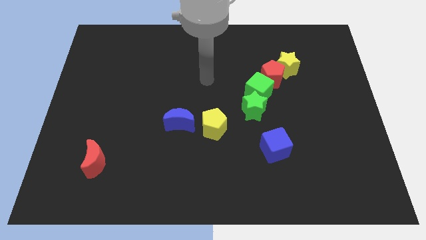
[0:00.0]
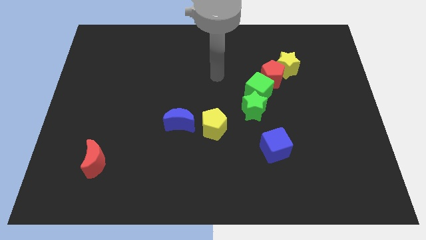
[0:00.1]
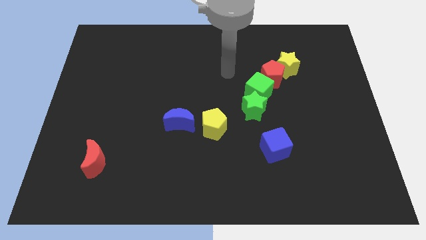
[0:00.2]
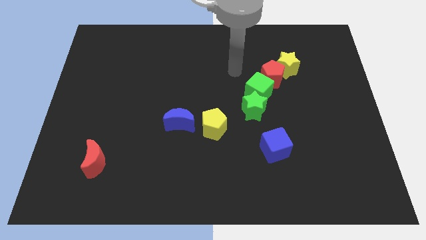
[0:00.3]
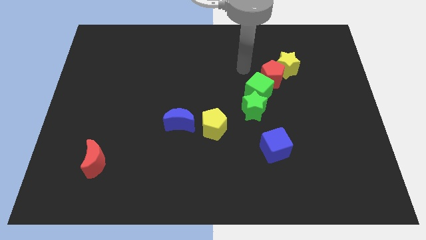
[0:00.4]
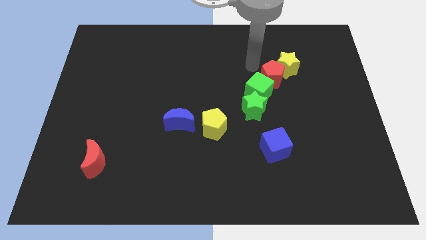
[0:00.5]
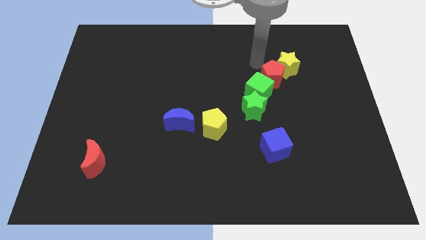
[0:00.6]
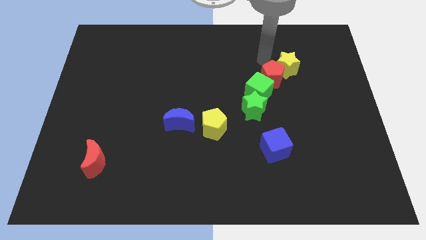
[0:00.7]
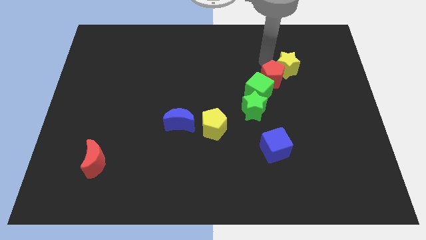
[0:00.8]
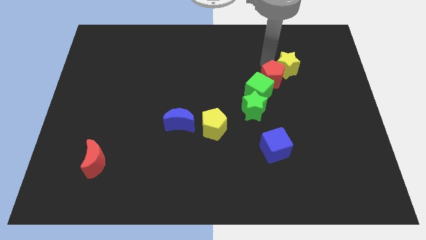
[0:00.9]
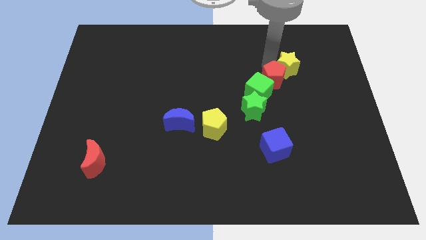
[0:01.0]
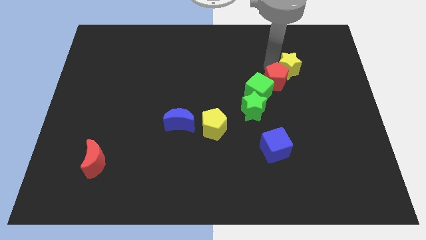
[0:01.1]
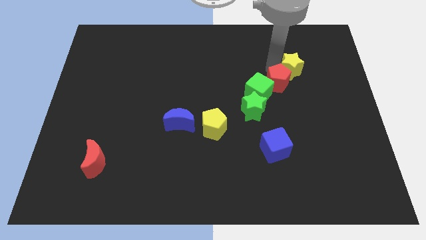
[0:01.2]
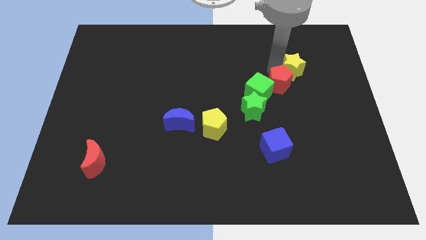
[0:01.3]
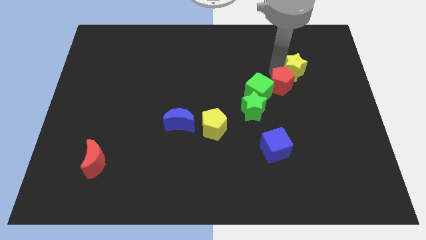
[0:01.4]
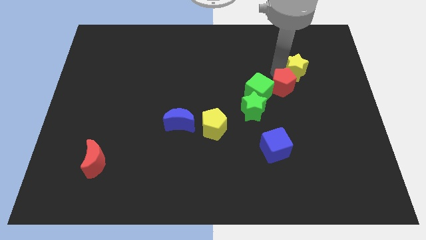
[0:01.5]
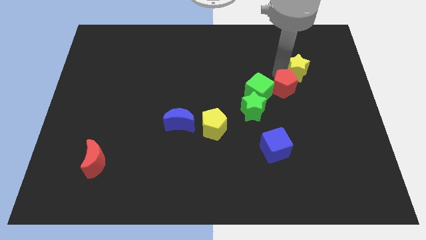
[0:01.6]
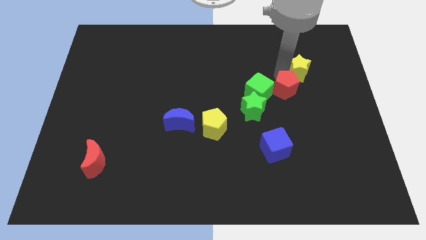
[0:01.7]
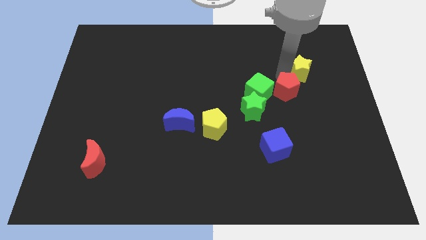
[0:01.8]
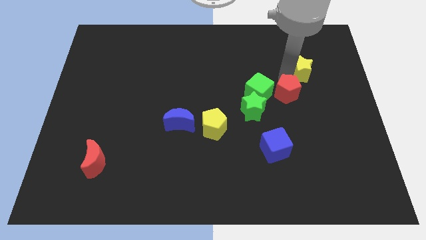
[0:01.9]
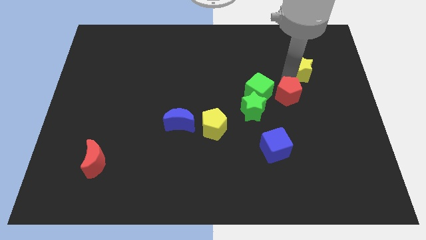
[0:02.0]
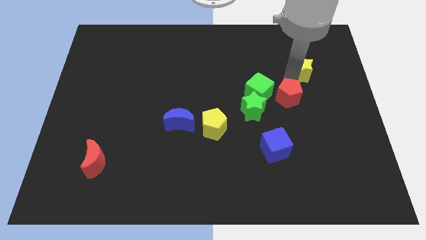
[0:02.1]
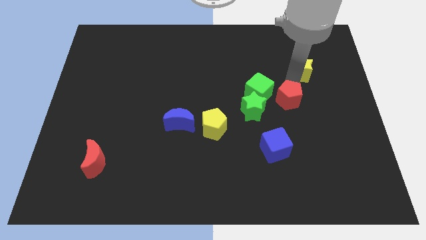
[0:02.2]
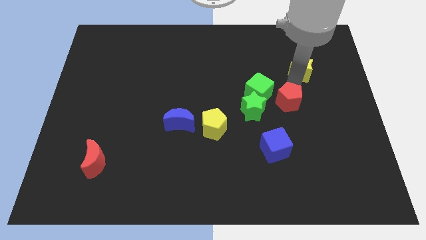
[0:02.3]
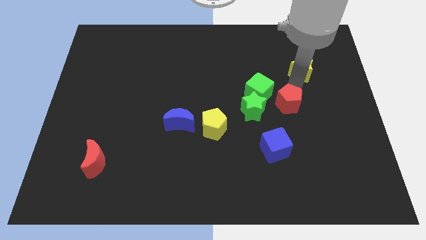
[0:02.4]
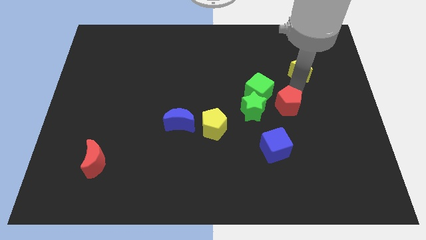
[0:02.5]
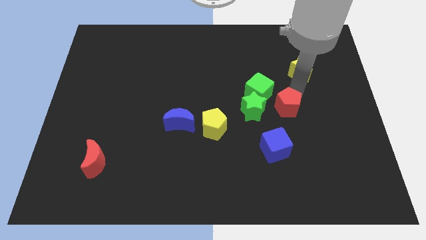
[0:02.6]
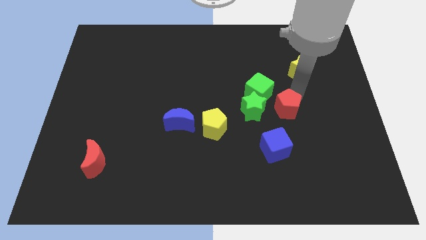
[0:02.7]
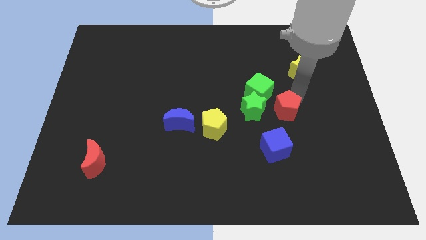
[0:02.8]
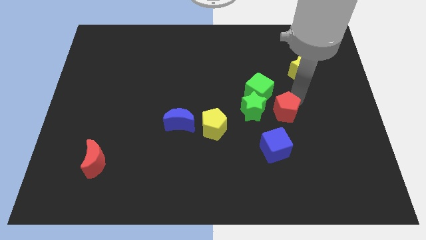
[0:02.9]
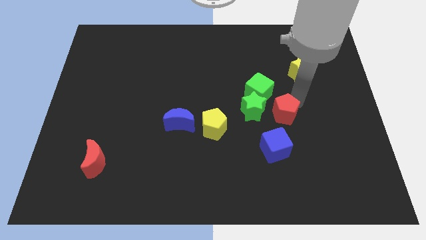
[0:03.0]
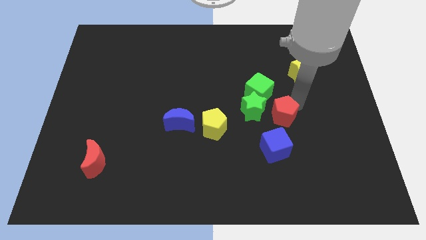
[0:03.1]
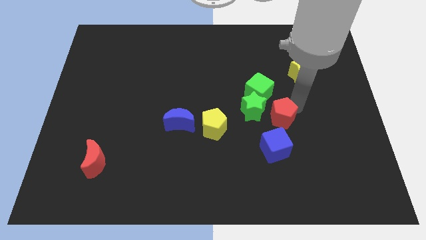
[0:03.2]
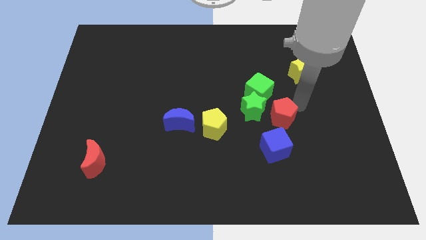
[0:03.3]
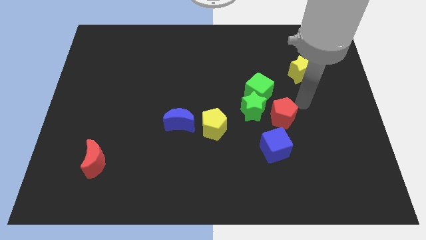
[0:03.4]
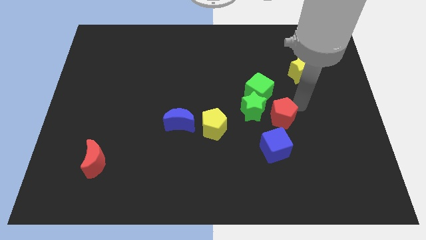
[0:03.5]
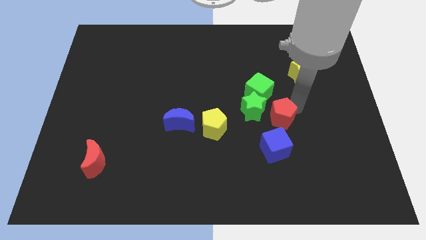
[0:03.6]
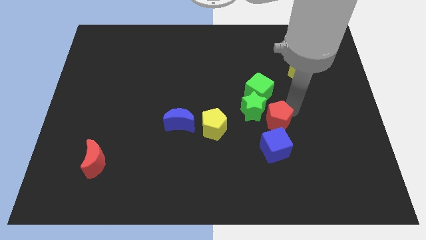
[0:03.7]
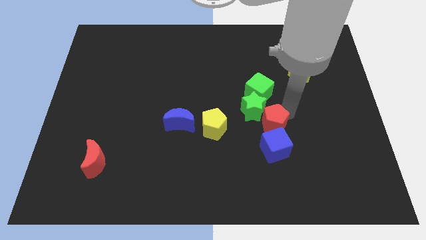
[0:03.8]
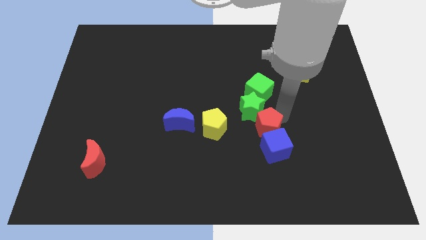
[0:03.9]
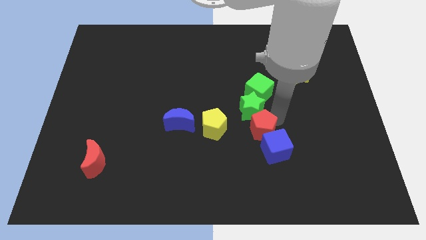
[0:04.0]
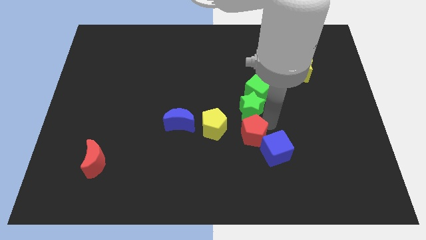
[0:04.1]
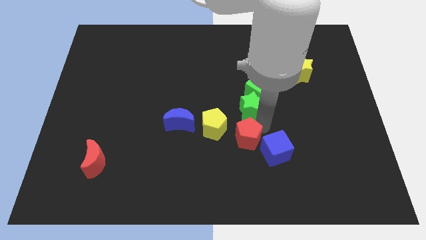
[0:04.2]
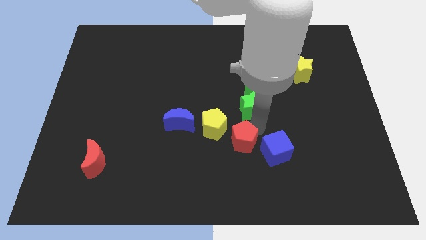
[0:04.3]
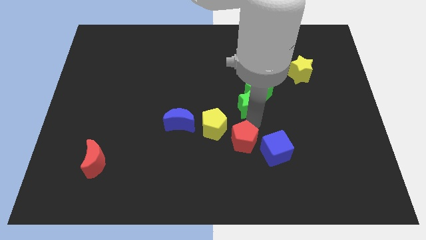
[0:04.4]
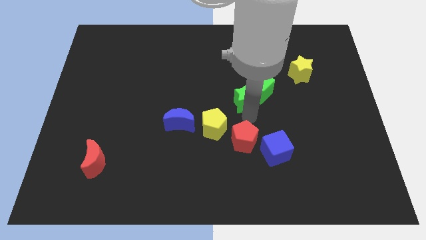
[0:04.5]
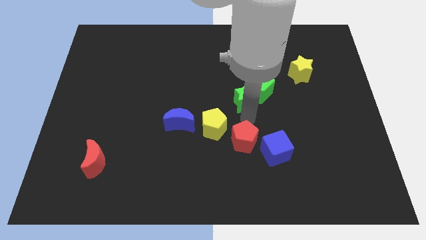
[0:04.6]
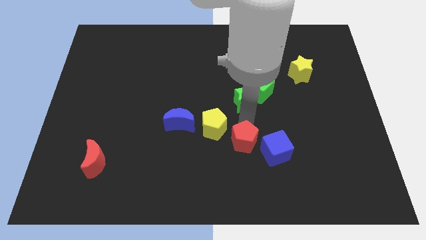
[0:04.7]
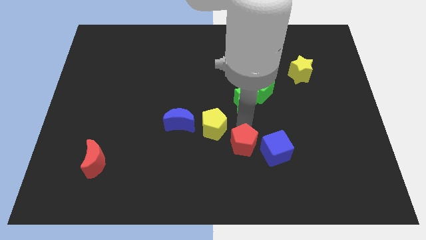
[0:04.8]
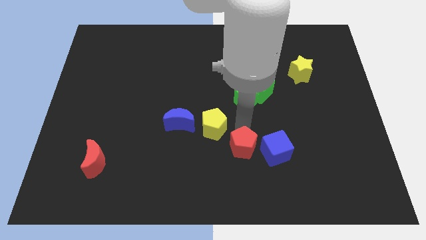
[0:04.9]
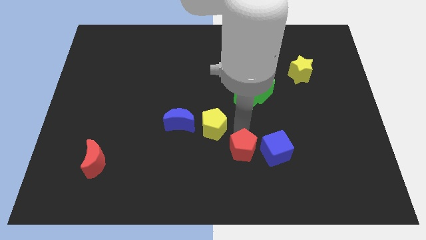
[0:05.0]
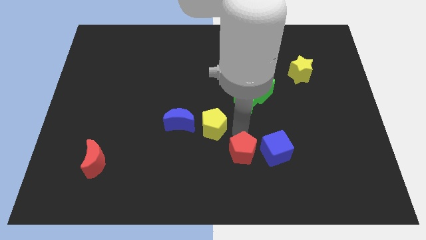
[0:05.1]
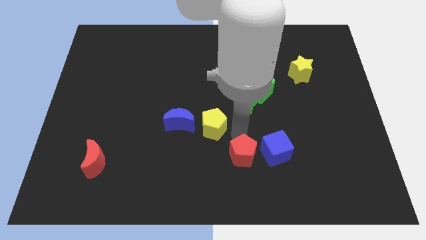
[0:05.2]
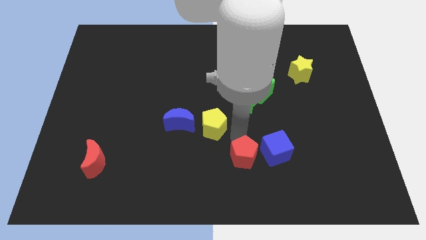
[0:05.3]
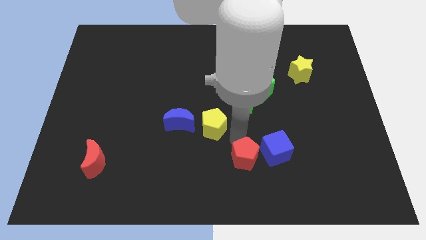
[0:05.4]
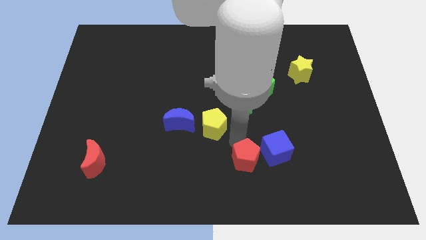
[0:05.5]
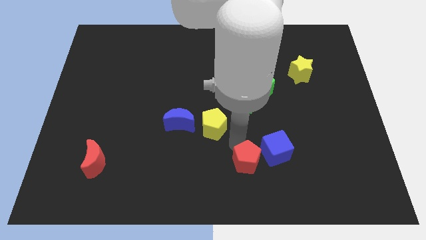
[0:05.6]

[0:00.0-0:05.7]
move the red pentagon to the bottom

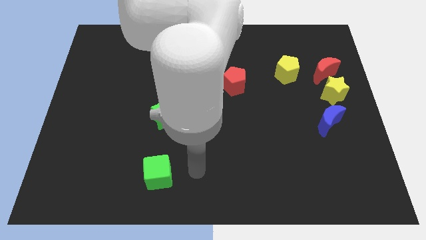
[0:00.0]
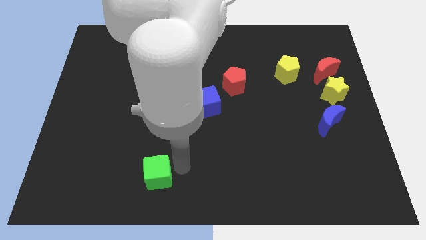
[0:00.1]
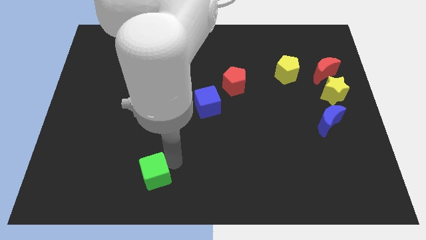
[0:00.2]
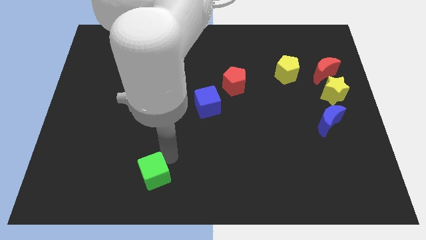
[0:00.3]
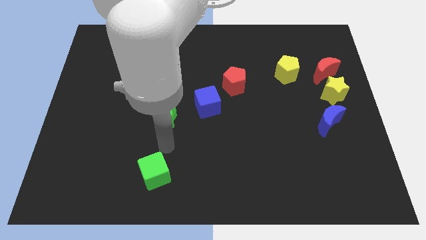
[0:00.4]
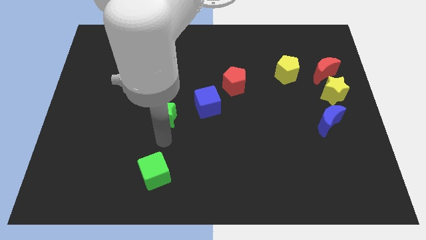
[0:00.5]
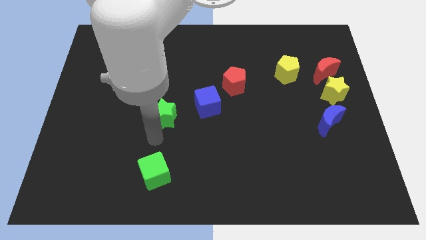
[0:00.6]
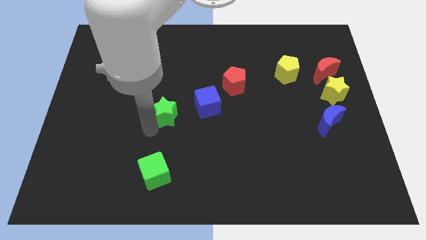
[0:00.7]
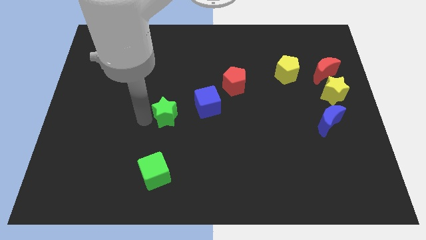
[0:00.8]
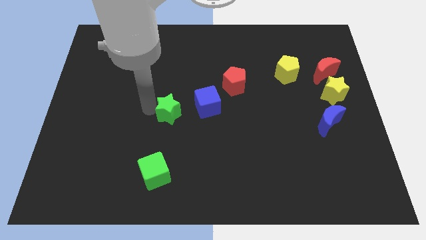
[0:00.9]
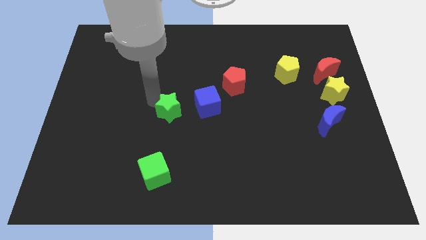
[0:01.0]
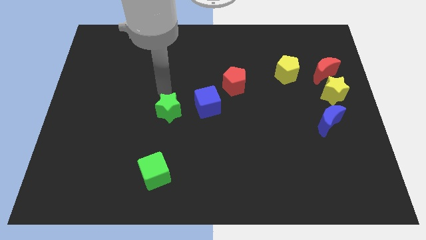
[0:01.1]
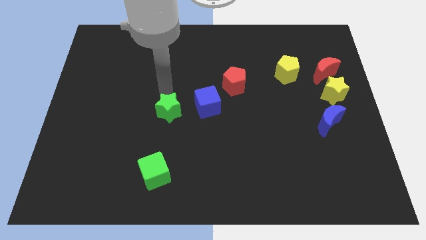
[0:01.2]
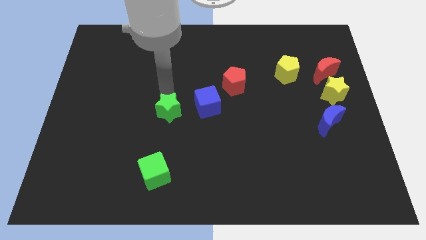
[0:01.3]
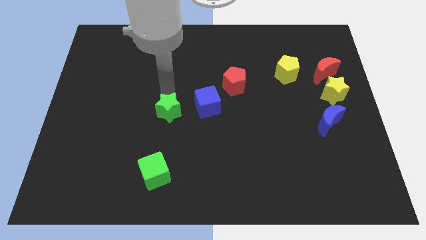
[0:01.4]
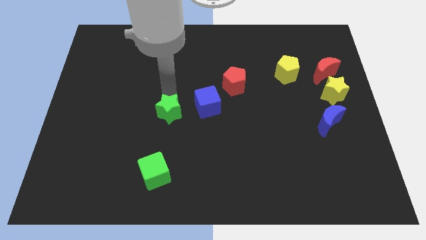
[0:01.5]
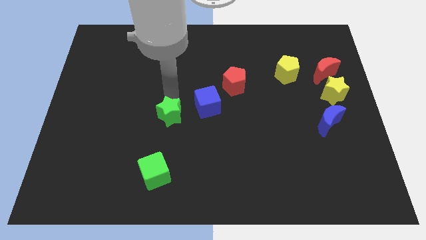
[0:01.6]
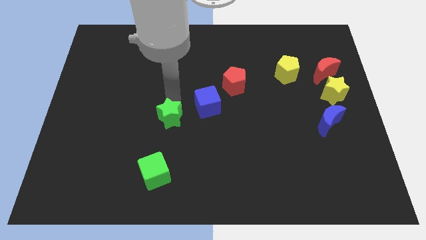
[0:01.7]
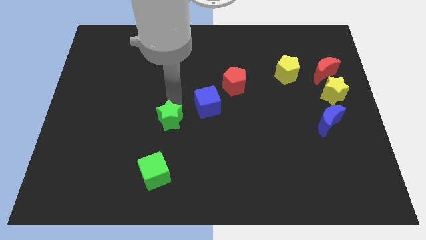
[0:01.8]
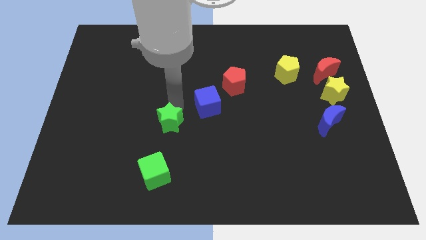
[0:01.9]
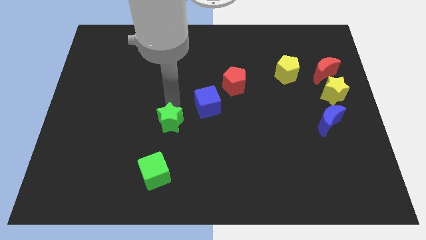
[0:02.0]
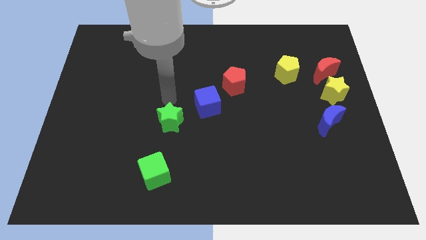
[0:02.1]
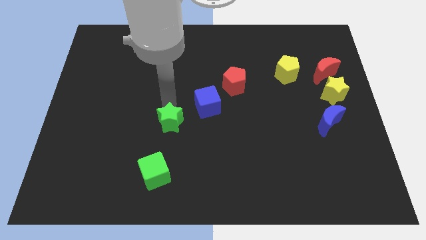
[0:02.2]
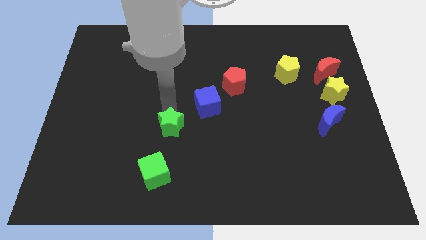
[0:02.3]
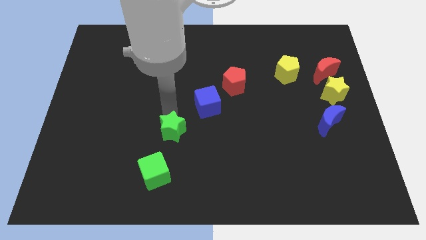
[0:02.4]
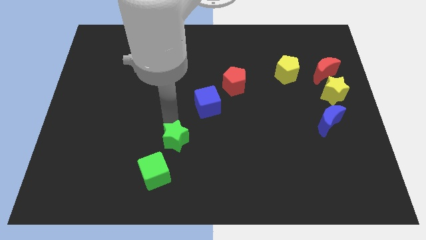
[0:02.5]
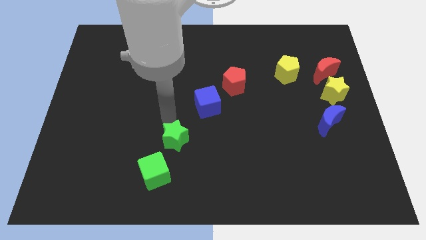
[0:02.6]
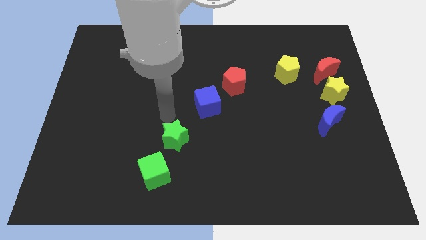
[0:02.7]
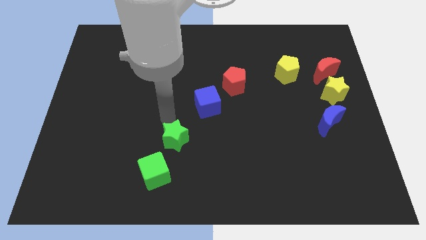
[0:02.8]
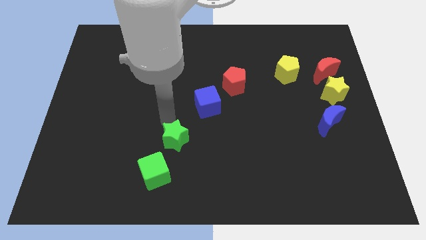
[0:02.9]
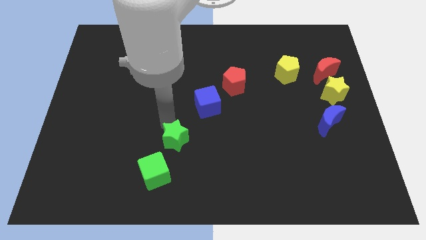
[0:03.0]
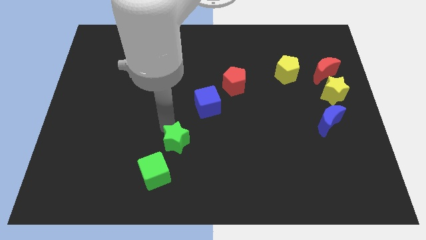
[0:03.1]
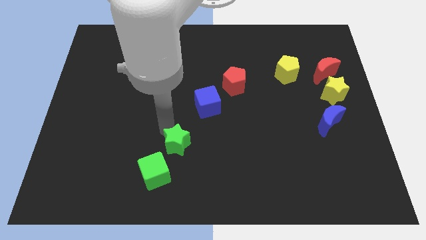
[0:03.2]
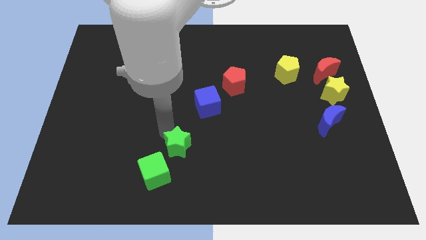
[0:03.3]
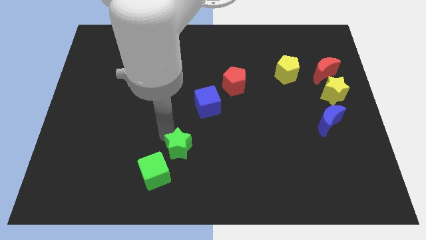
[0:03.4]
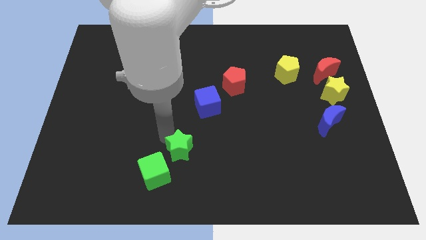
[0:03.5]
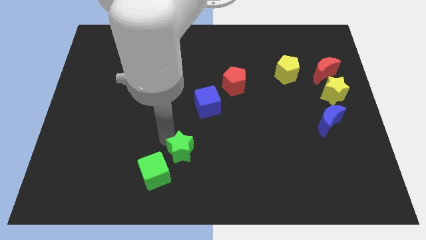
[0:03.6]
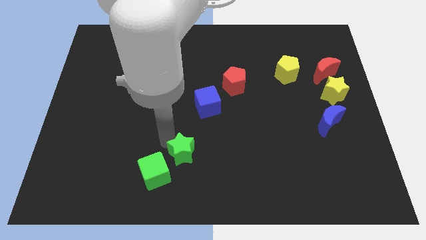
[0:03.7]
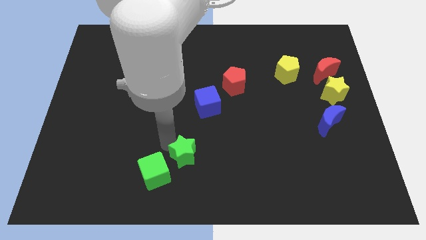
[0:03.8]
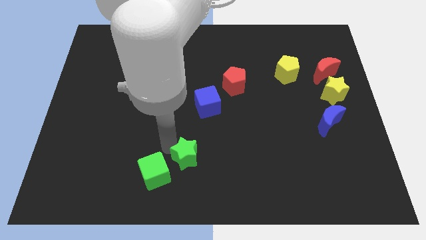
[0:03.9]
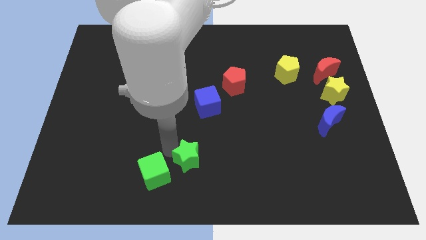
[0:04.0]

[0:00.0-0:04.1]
move the green star to the bottom side
